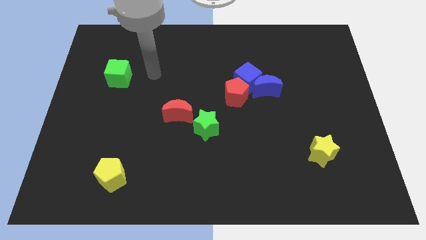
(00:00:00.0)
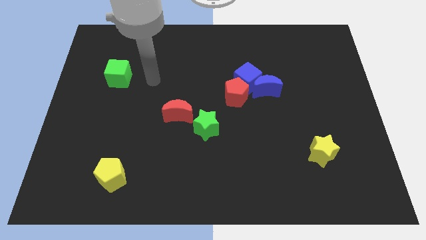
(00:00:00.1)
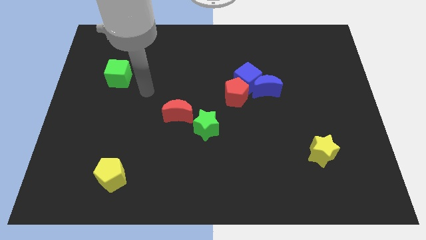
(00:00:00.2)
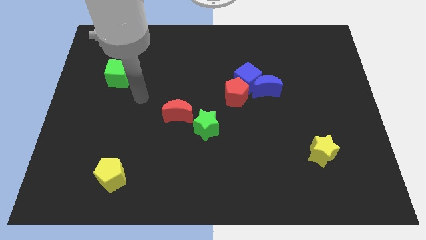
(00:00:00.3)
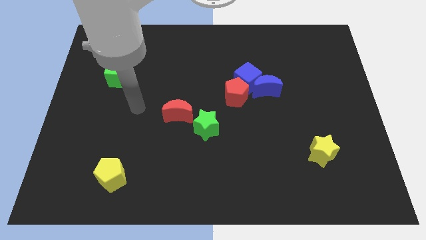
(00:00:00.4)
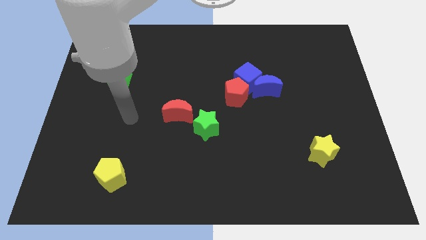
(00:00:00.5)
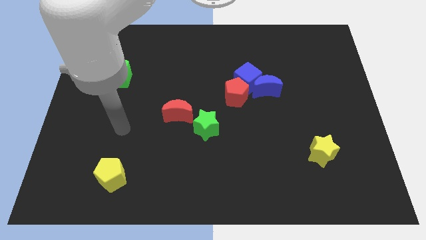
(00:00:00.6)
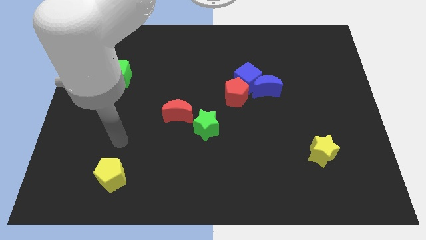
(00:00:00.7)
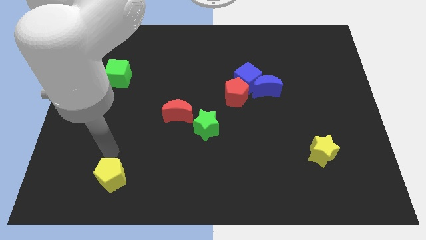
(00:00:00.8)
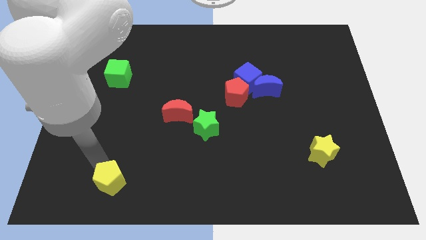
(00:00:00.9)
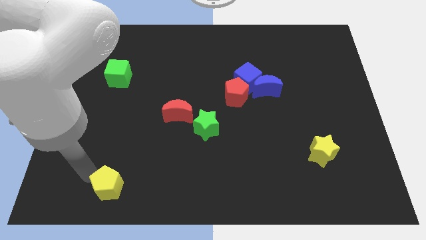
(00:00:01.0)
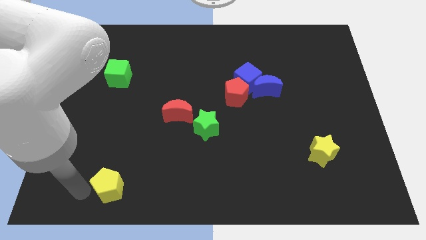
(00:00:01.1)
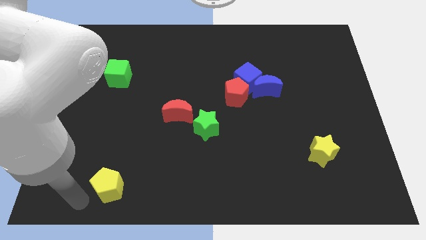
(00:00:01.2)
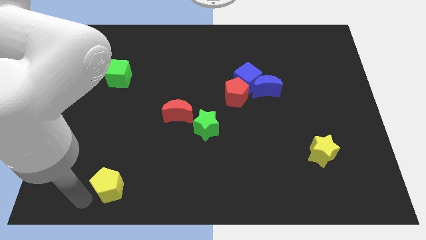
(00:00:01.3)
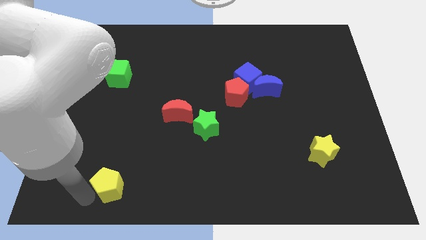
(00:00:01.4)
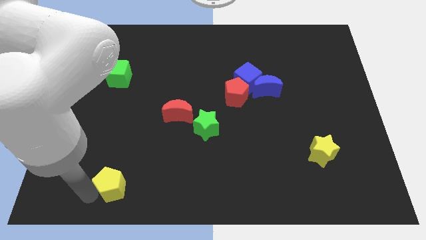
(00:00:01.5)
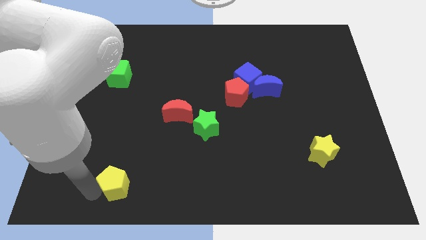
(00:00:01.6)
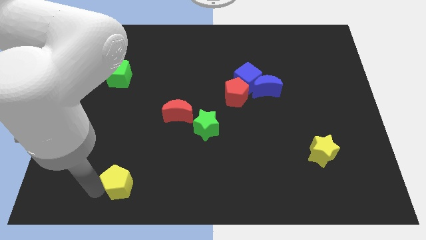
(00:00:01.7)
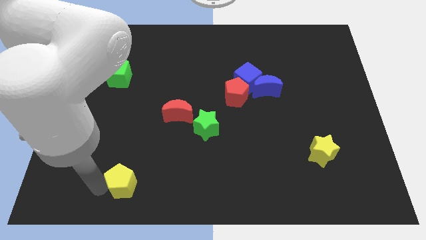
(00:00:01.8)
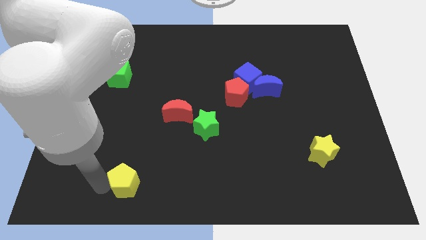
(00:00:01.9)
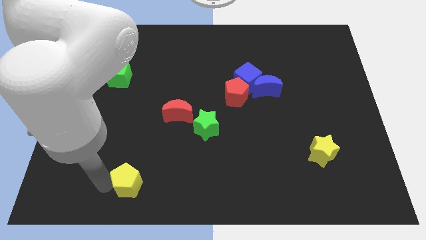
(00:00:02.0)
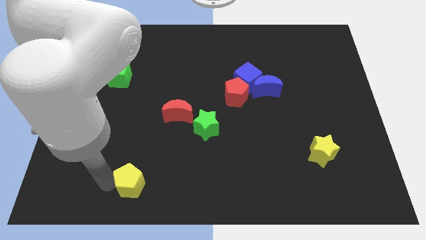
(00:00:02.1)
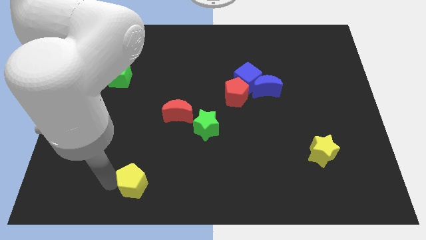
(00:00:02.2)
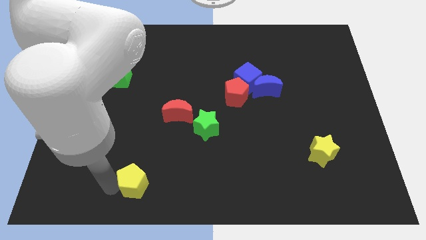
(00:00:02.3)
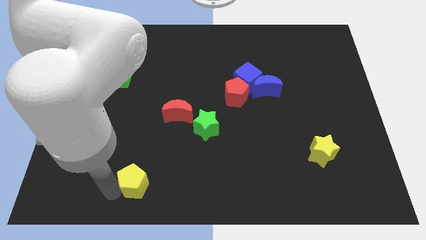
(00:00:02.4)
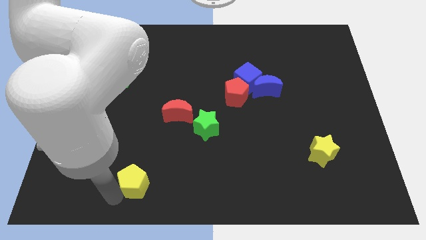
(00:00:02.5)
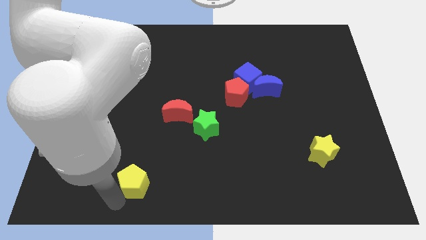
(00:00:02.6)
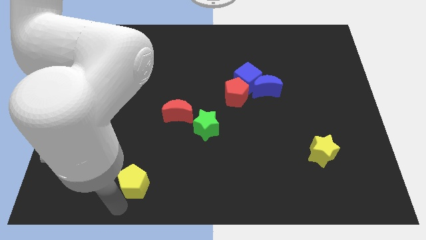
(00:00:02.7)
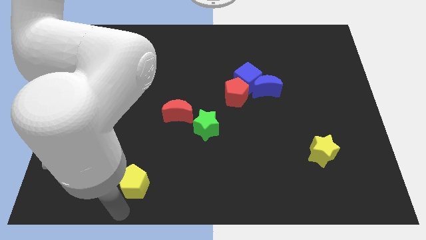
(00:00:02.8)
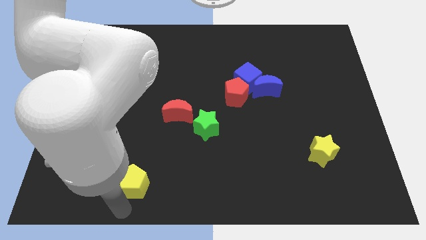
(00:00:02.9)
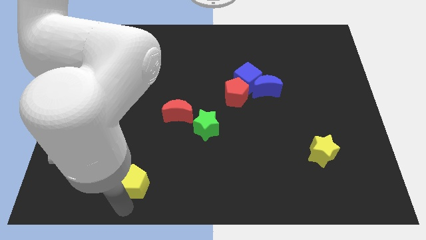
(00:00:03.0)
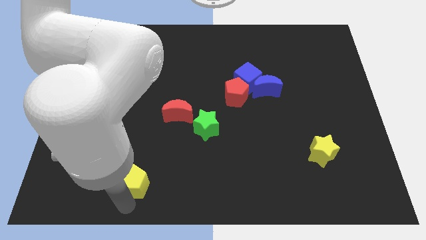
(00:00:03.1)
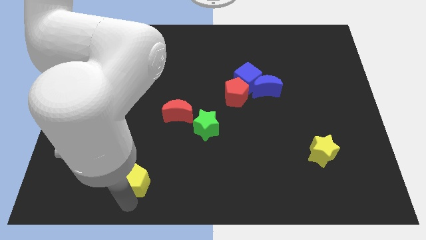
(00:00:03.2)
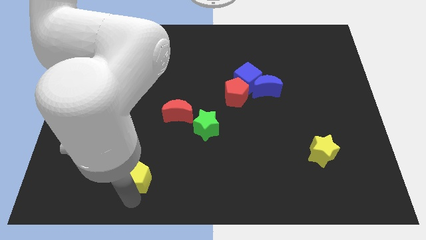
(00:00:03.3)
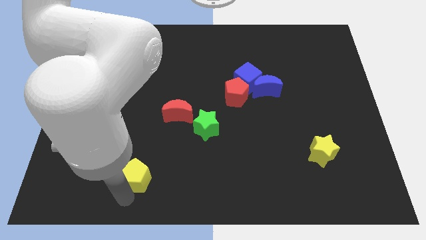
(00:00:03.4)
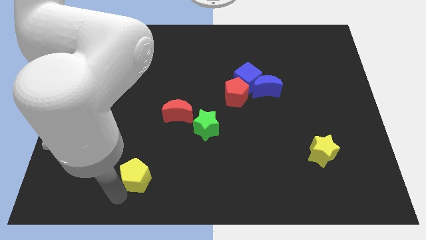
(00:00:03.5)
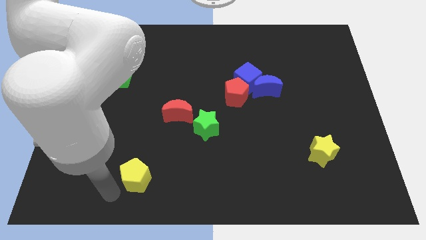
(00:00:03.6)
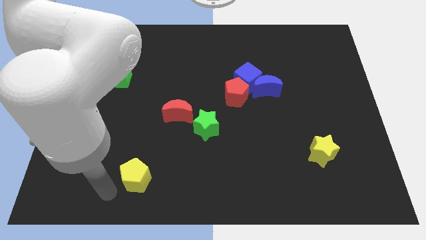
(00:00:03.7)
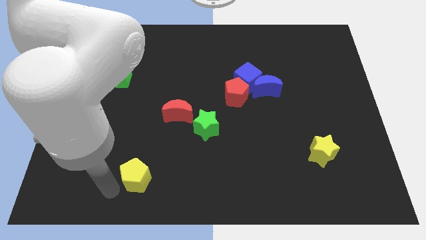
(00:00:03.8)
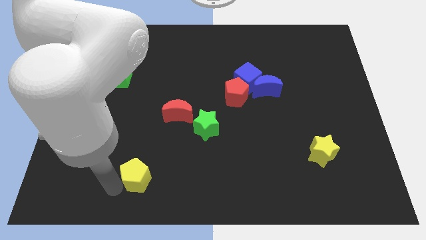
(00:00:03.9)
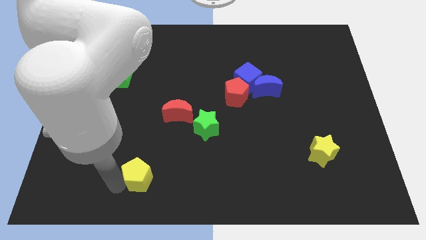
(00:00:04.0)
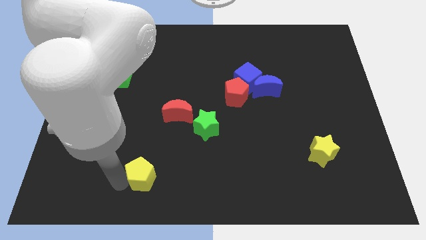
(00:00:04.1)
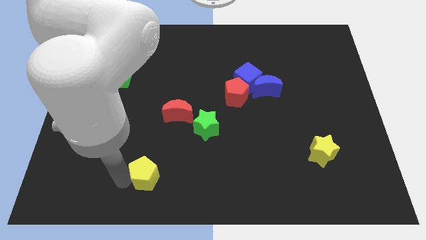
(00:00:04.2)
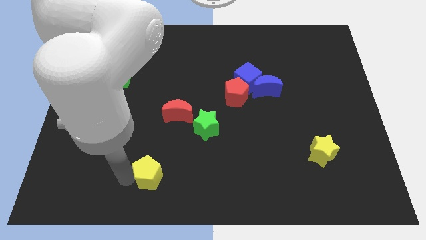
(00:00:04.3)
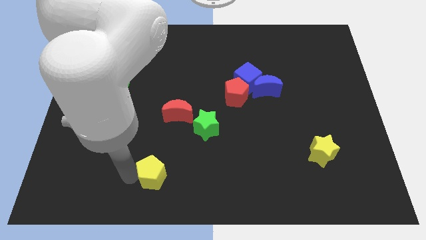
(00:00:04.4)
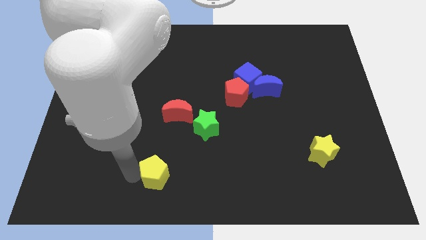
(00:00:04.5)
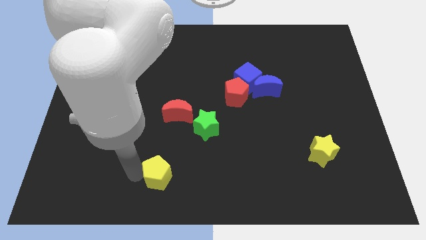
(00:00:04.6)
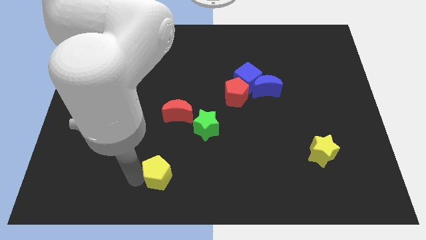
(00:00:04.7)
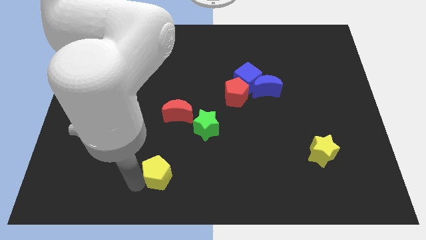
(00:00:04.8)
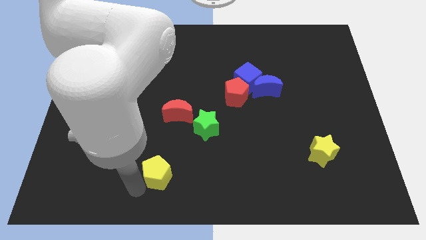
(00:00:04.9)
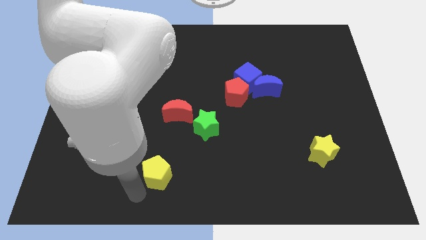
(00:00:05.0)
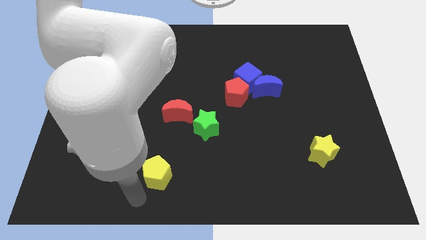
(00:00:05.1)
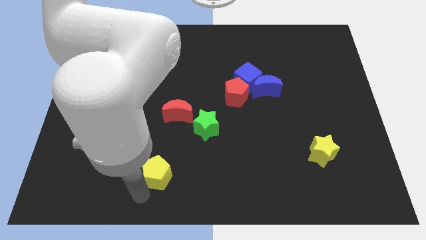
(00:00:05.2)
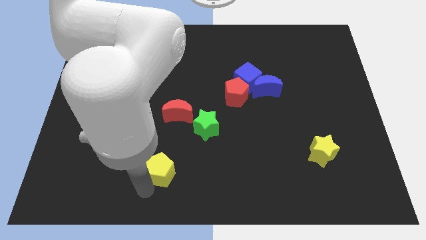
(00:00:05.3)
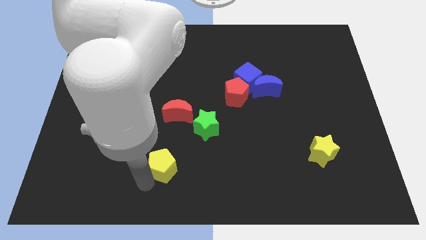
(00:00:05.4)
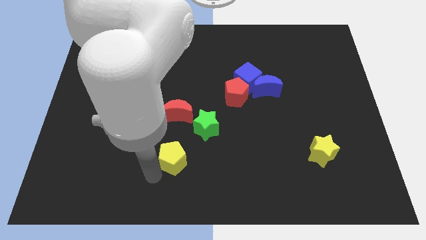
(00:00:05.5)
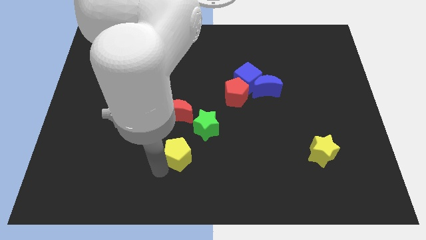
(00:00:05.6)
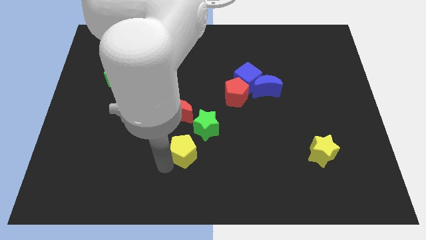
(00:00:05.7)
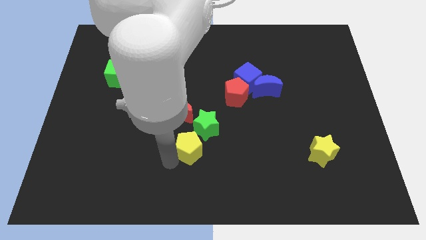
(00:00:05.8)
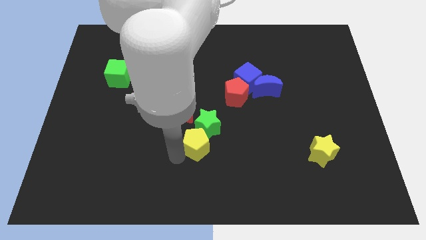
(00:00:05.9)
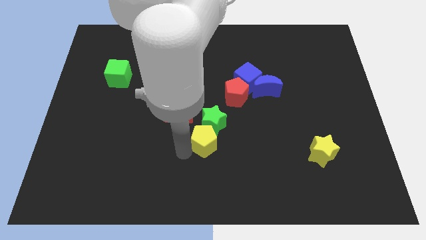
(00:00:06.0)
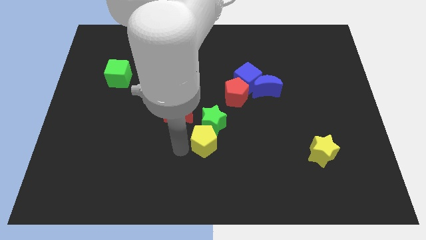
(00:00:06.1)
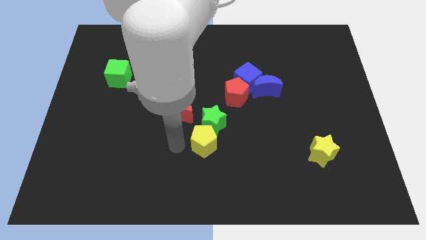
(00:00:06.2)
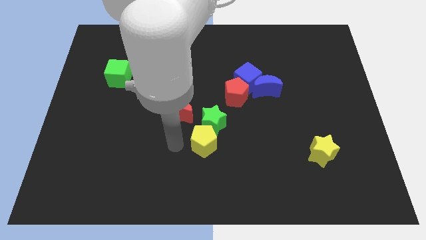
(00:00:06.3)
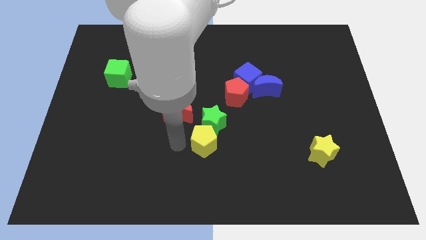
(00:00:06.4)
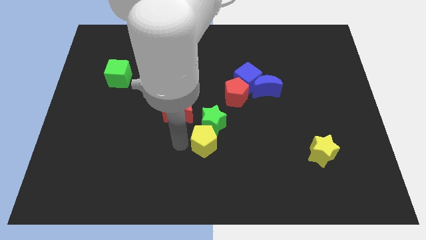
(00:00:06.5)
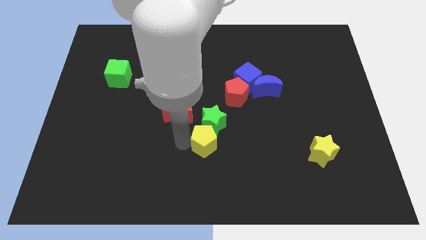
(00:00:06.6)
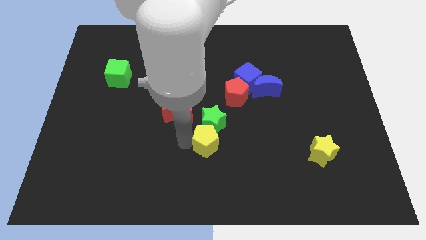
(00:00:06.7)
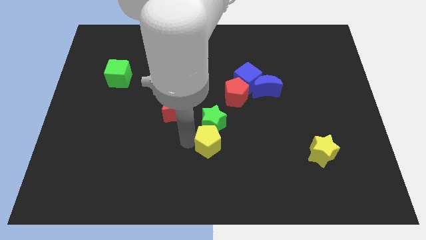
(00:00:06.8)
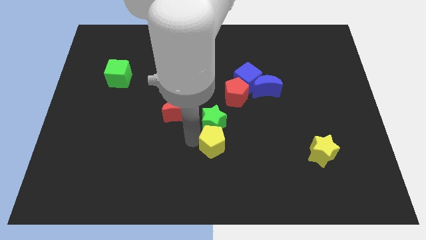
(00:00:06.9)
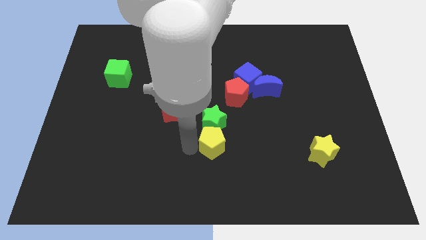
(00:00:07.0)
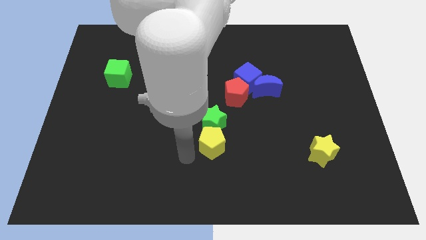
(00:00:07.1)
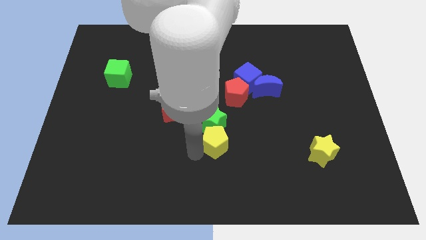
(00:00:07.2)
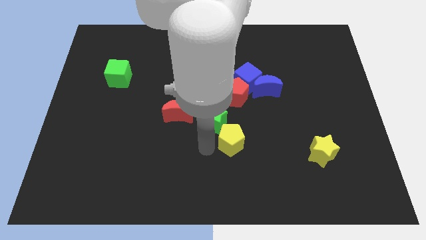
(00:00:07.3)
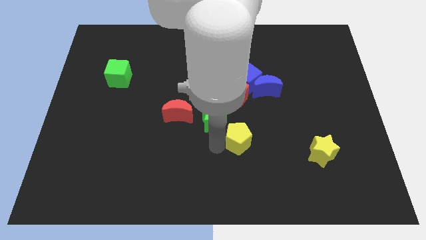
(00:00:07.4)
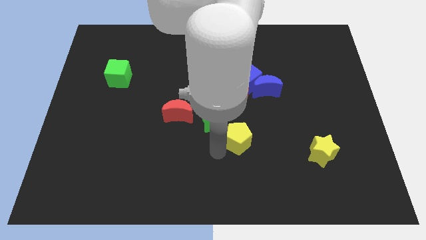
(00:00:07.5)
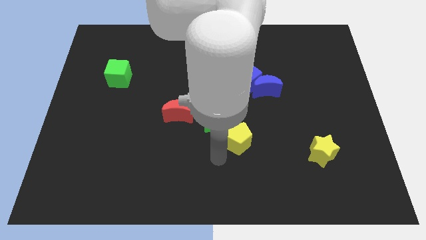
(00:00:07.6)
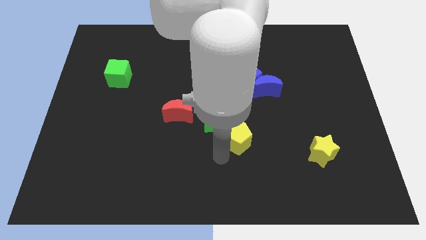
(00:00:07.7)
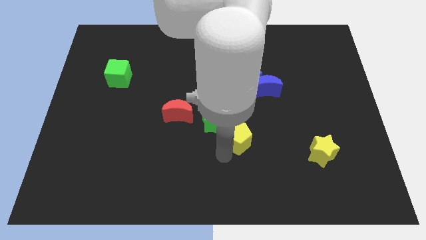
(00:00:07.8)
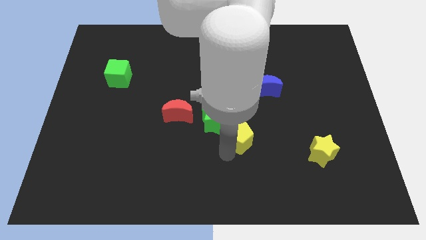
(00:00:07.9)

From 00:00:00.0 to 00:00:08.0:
put the yellow pentagon to the right of the green star
